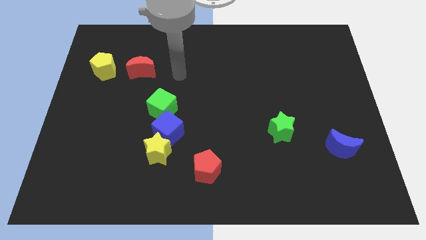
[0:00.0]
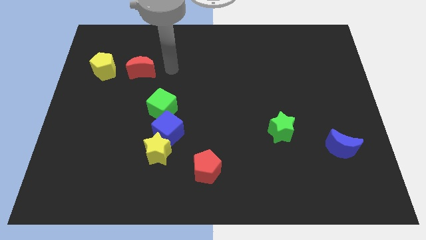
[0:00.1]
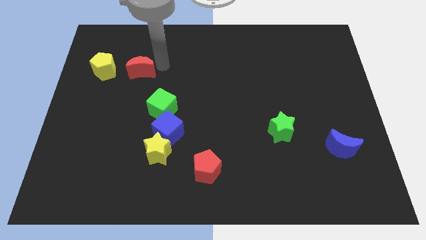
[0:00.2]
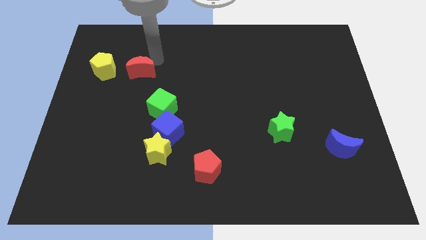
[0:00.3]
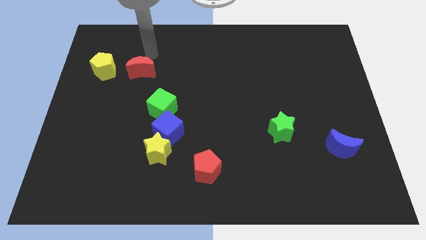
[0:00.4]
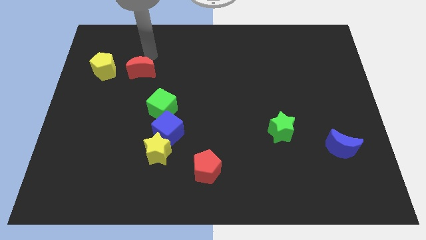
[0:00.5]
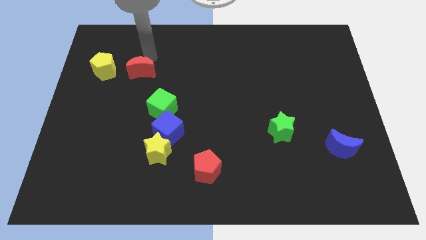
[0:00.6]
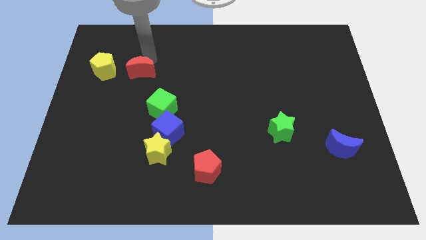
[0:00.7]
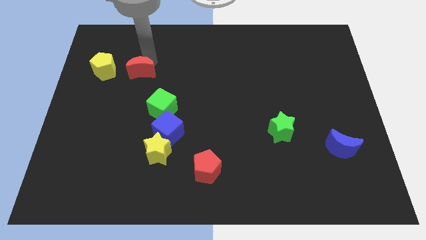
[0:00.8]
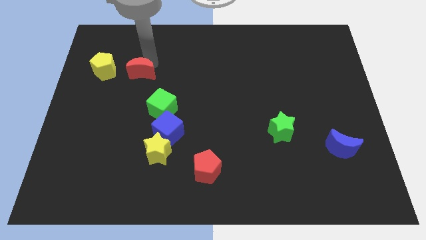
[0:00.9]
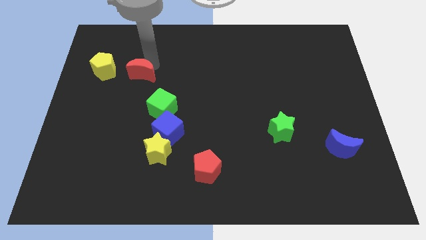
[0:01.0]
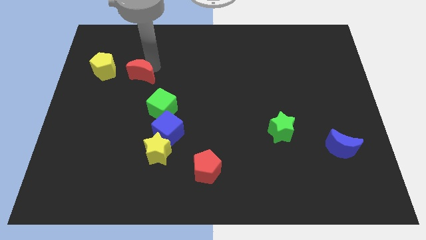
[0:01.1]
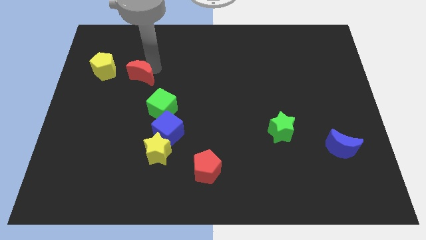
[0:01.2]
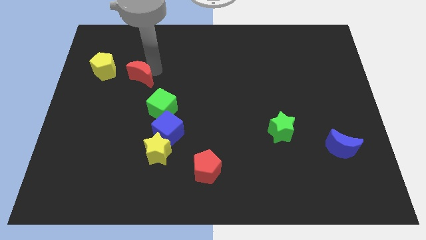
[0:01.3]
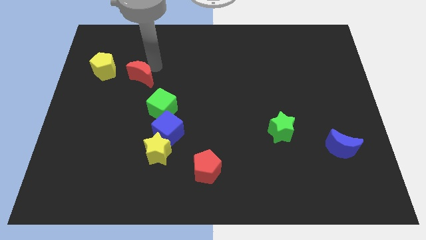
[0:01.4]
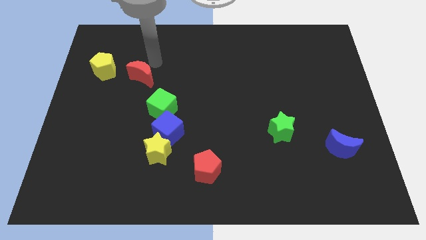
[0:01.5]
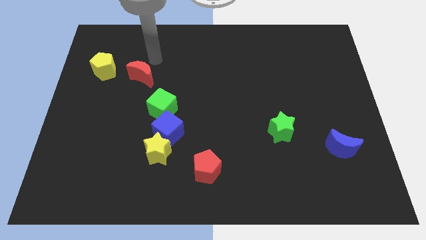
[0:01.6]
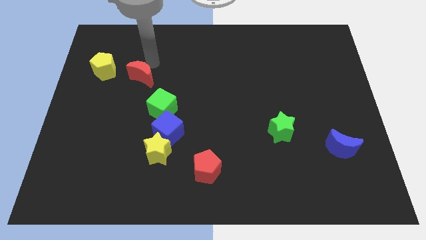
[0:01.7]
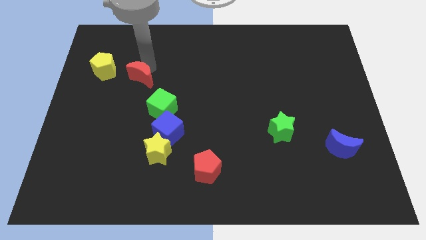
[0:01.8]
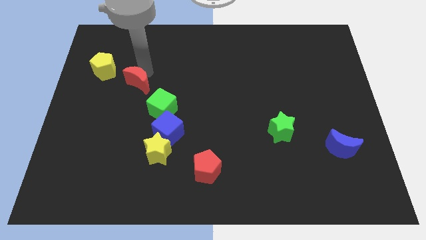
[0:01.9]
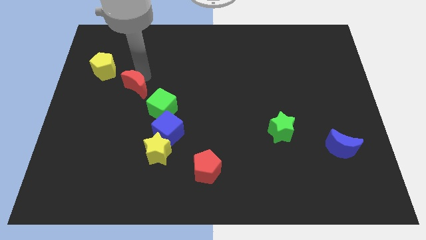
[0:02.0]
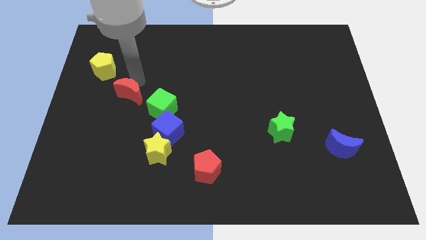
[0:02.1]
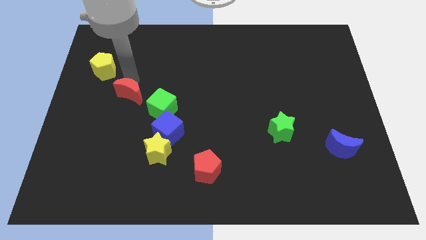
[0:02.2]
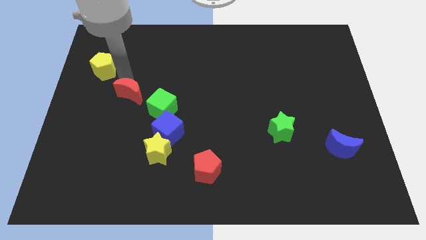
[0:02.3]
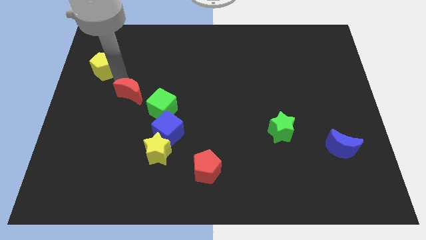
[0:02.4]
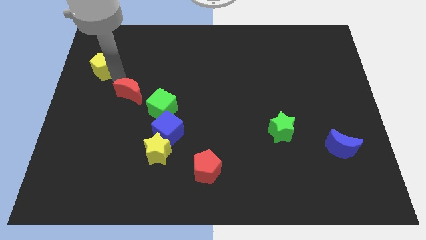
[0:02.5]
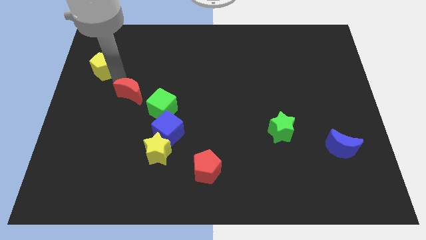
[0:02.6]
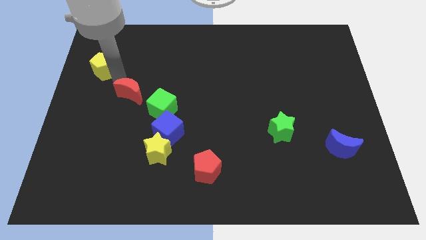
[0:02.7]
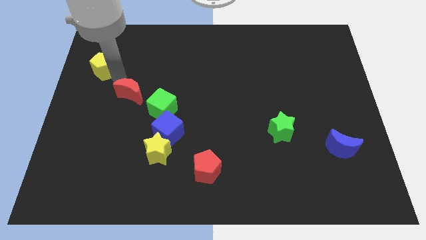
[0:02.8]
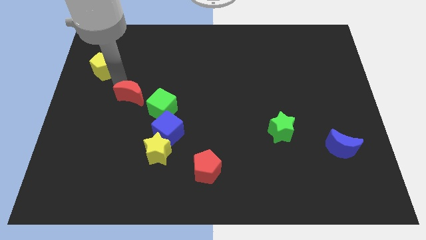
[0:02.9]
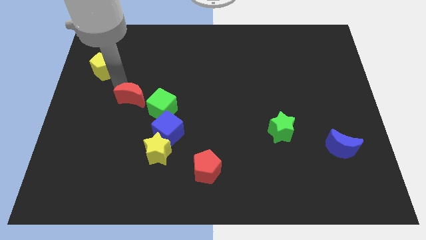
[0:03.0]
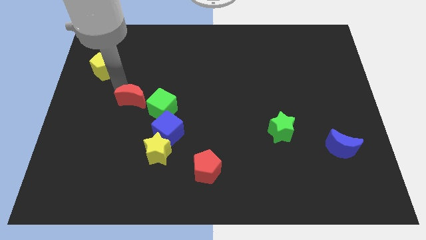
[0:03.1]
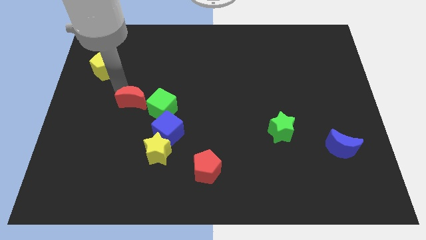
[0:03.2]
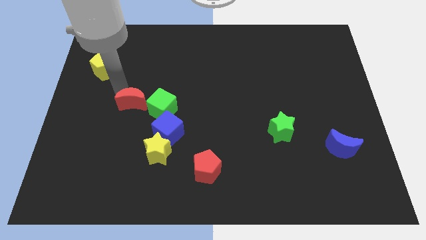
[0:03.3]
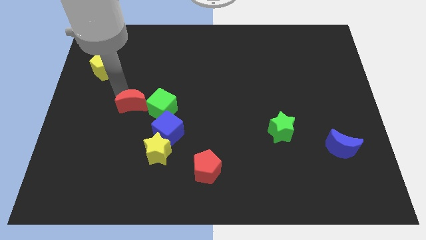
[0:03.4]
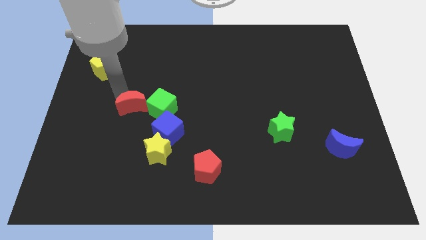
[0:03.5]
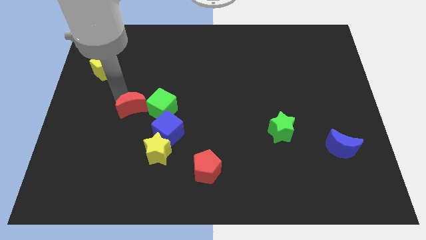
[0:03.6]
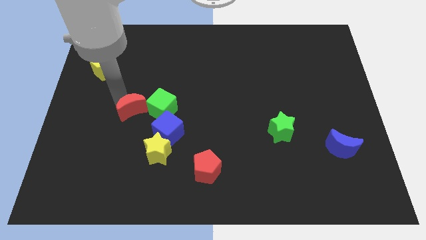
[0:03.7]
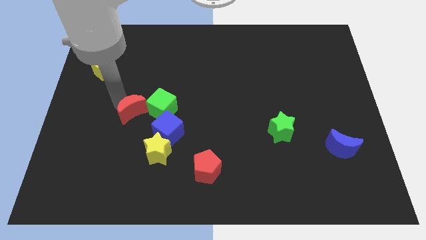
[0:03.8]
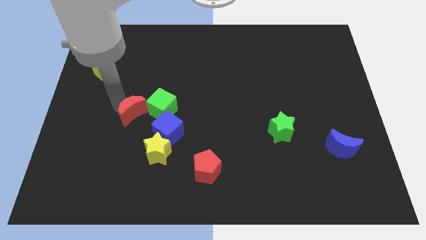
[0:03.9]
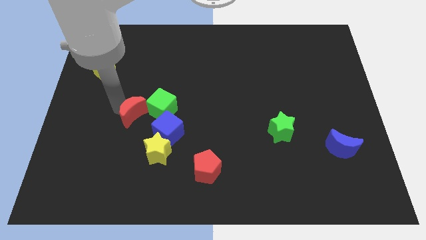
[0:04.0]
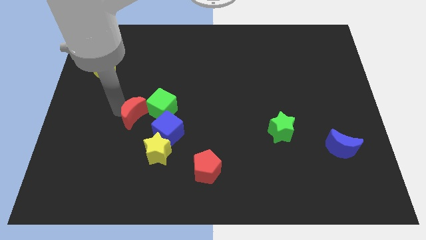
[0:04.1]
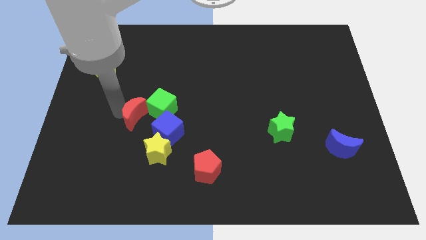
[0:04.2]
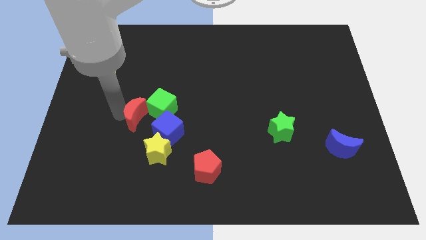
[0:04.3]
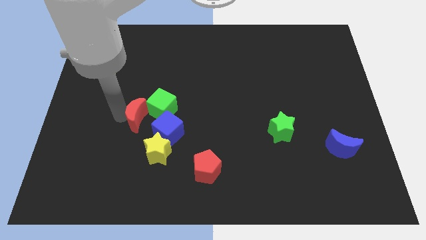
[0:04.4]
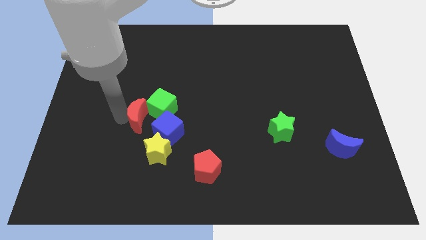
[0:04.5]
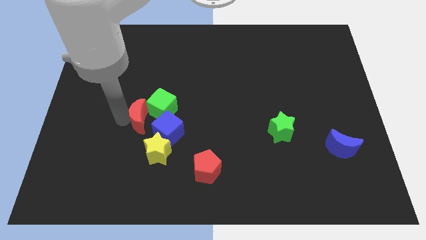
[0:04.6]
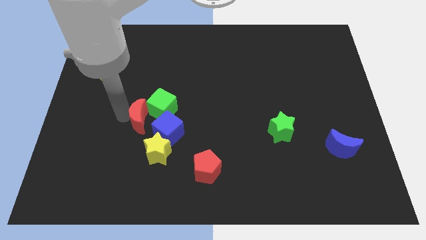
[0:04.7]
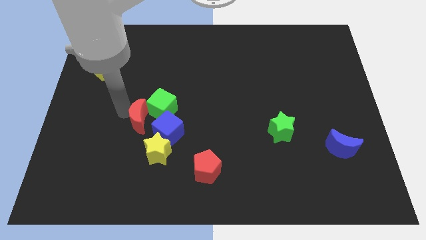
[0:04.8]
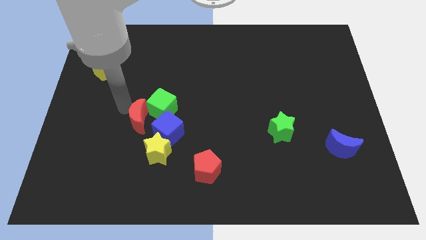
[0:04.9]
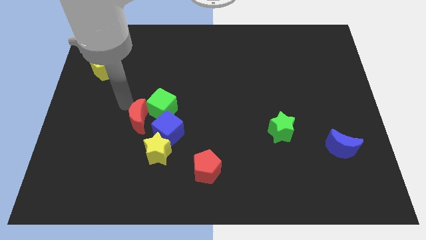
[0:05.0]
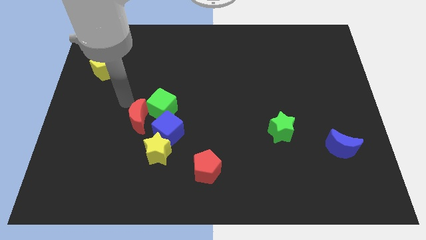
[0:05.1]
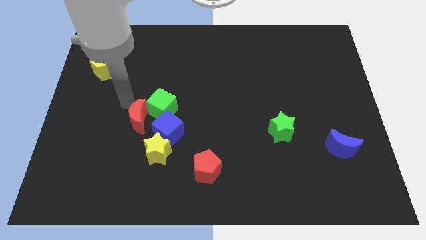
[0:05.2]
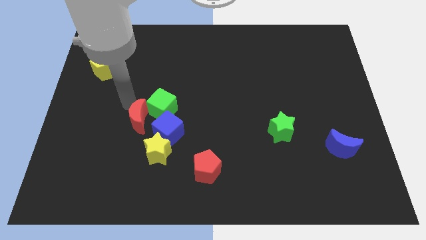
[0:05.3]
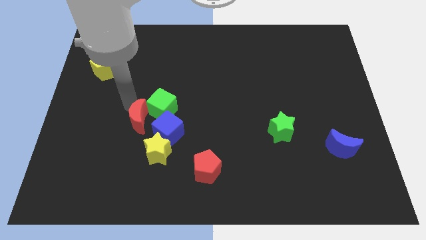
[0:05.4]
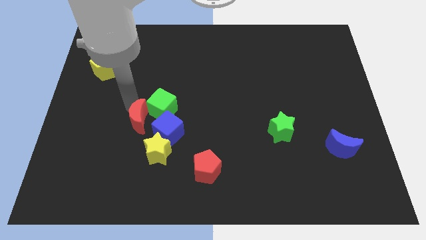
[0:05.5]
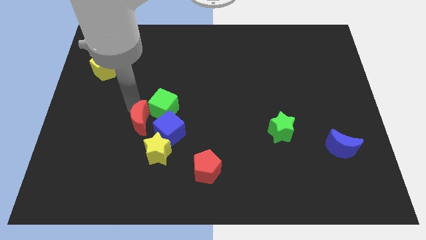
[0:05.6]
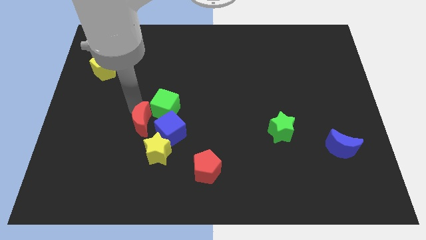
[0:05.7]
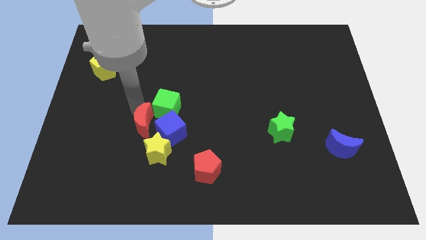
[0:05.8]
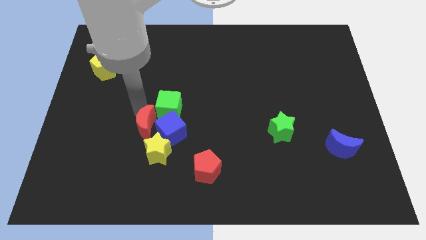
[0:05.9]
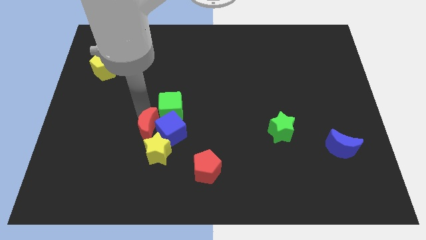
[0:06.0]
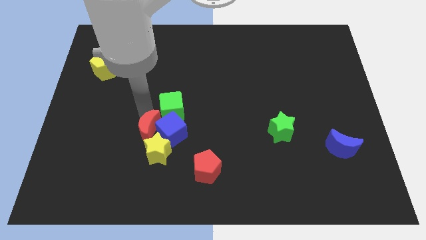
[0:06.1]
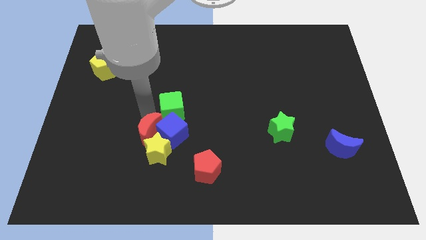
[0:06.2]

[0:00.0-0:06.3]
push the red moon close to the yellow star

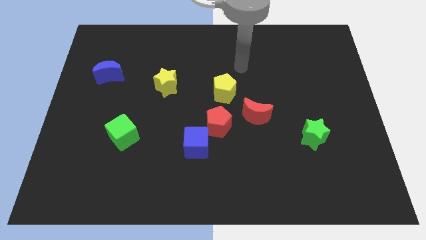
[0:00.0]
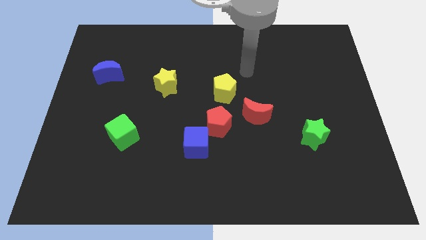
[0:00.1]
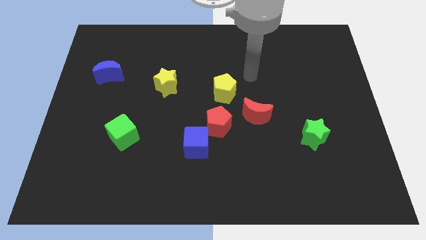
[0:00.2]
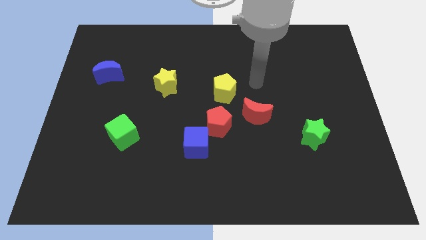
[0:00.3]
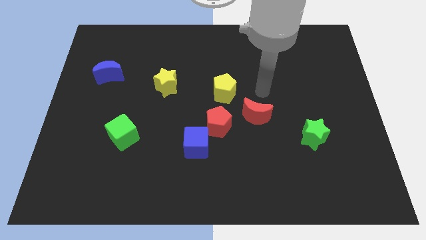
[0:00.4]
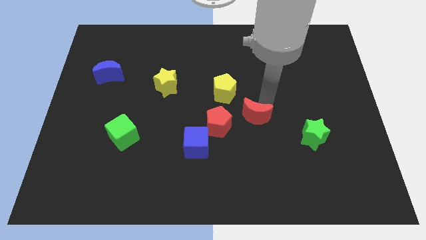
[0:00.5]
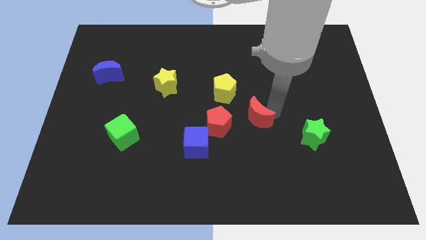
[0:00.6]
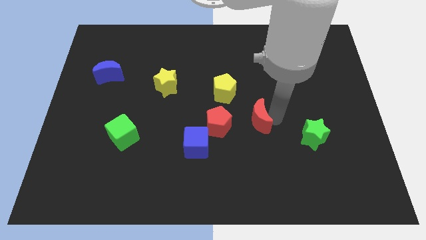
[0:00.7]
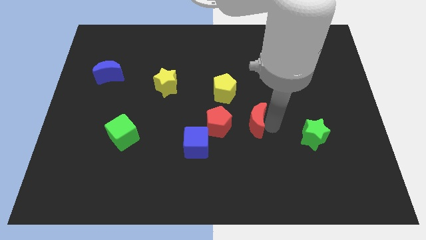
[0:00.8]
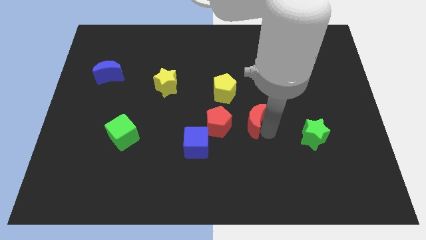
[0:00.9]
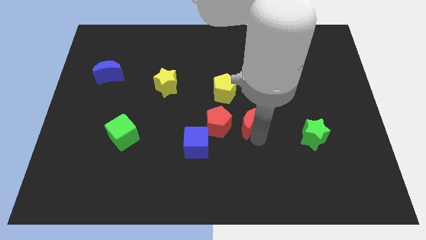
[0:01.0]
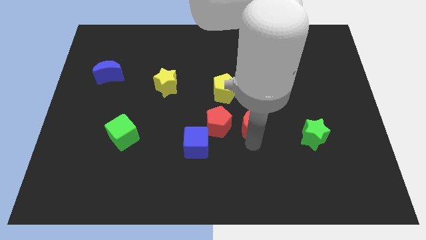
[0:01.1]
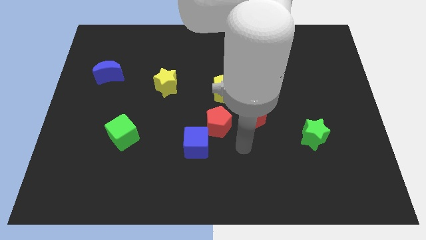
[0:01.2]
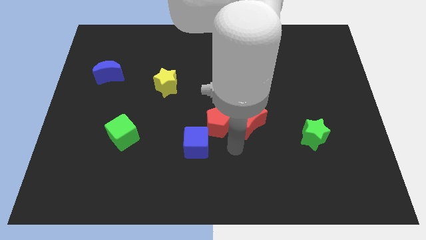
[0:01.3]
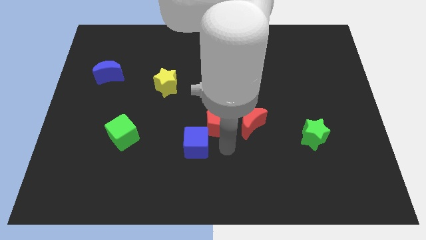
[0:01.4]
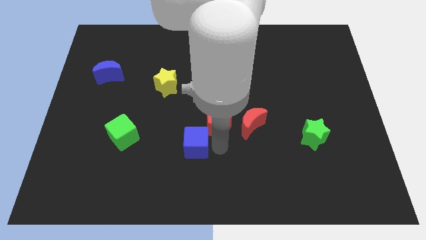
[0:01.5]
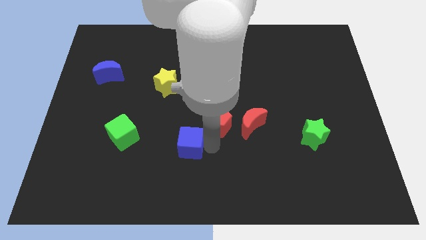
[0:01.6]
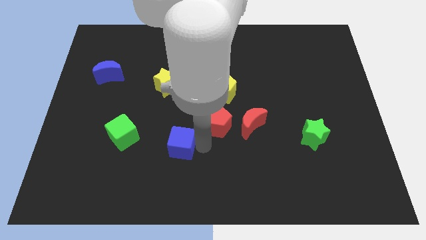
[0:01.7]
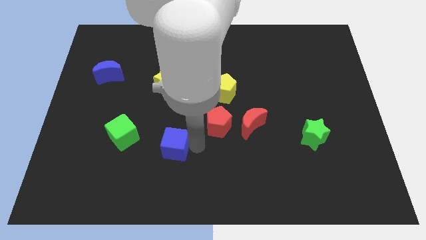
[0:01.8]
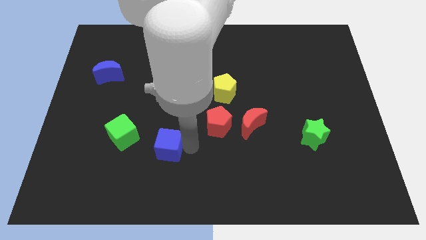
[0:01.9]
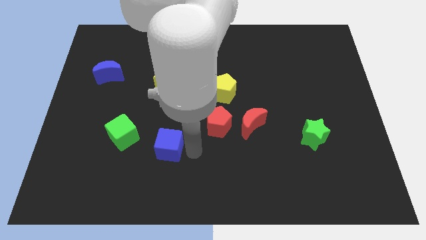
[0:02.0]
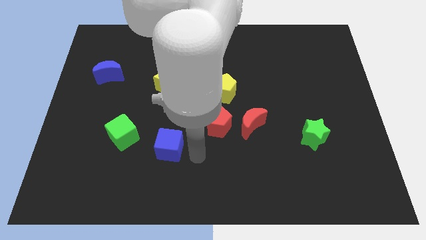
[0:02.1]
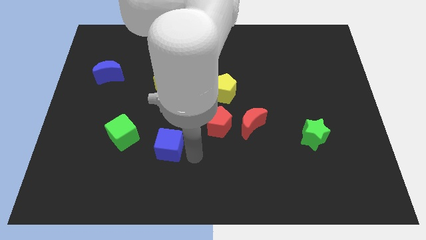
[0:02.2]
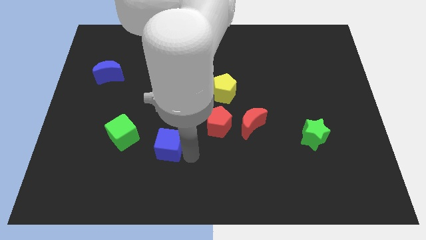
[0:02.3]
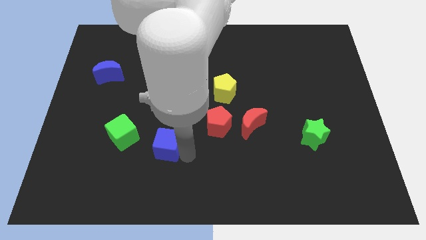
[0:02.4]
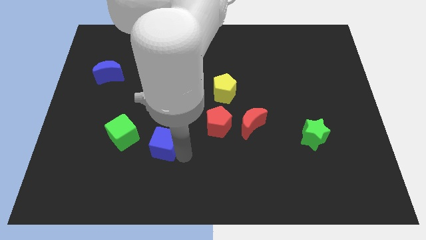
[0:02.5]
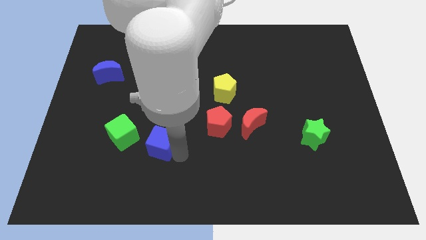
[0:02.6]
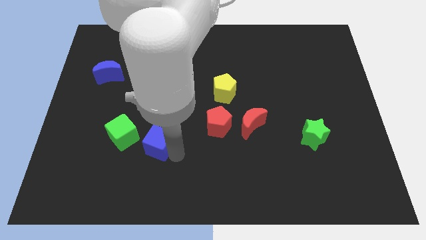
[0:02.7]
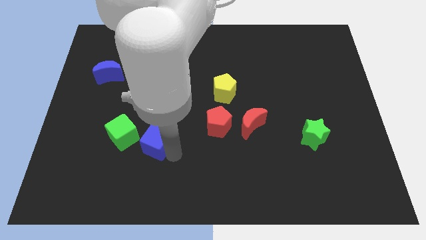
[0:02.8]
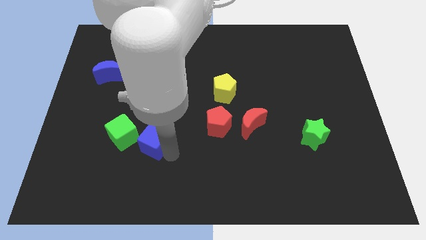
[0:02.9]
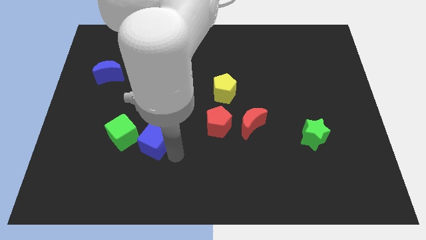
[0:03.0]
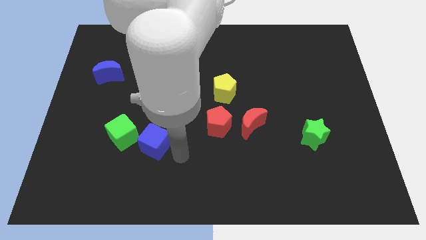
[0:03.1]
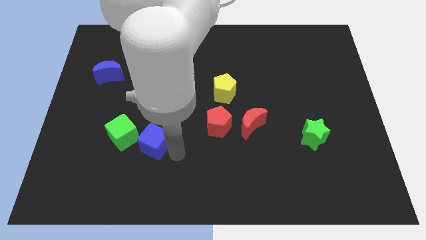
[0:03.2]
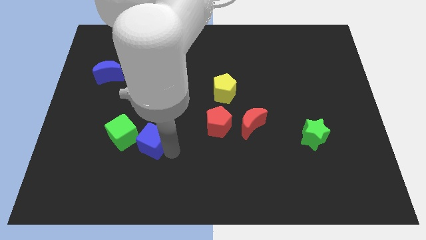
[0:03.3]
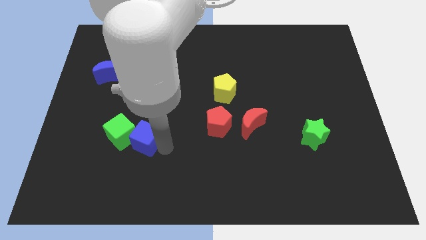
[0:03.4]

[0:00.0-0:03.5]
move the blue cube next to the green cube
